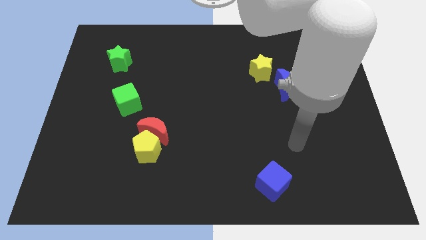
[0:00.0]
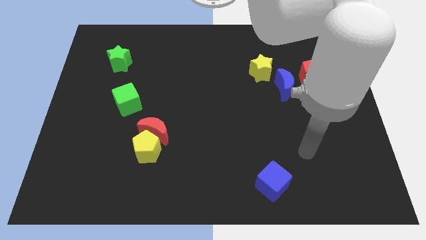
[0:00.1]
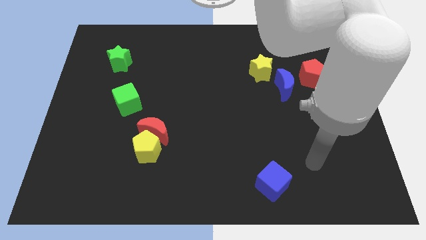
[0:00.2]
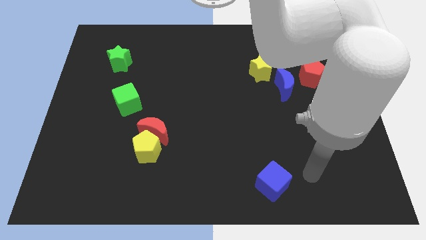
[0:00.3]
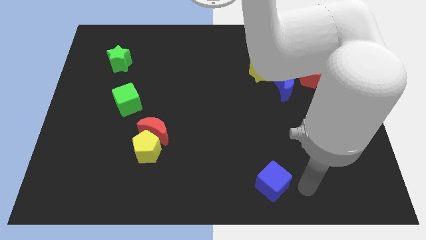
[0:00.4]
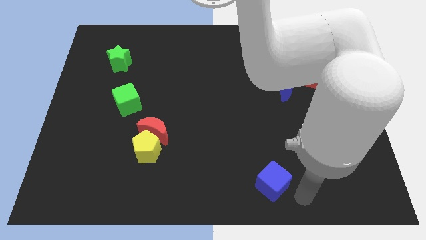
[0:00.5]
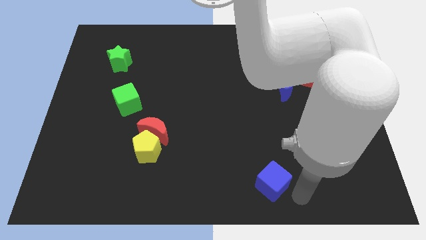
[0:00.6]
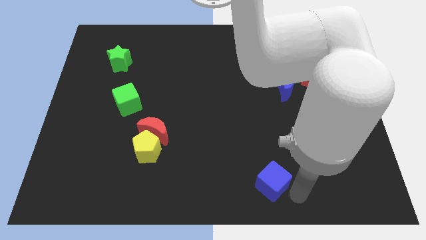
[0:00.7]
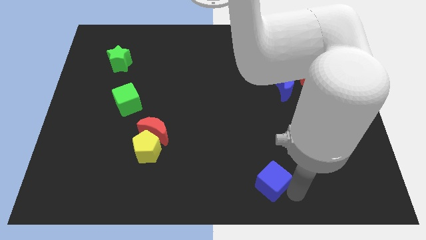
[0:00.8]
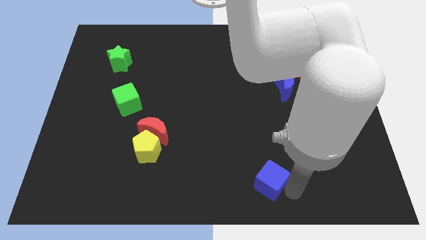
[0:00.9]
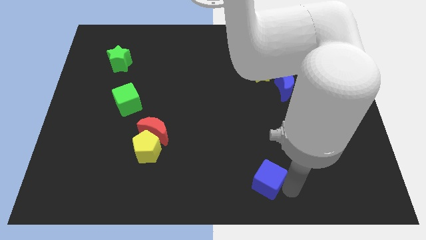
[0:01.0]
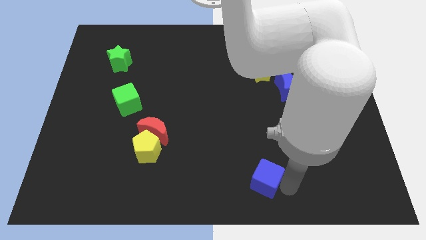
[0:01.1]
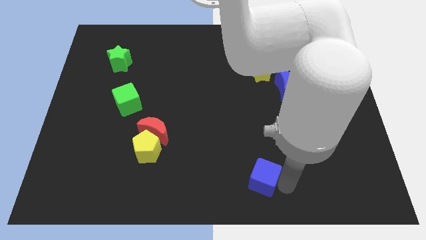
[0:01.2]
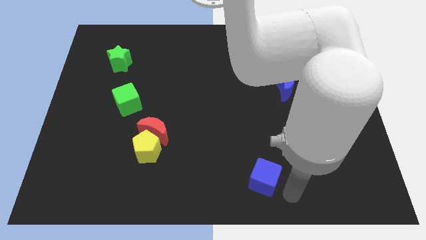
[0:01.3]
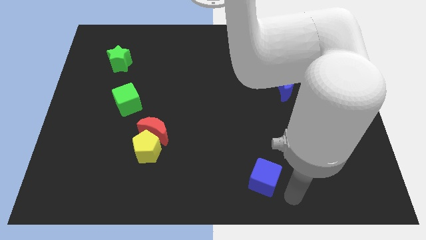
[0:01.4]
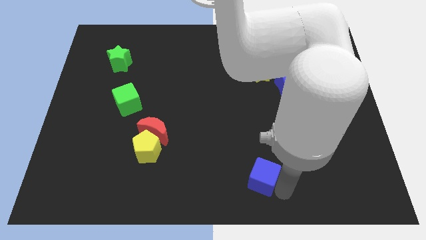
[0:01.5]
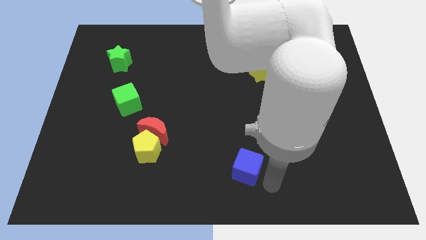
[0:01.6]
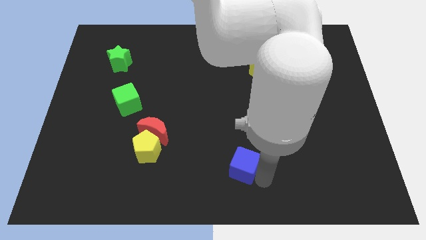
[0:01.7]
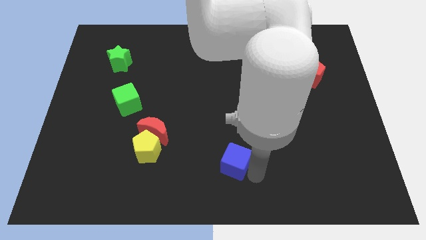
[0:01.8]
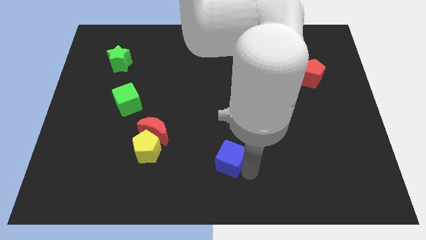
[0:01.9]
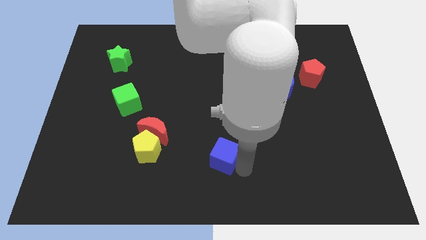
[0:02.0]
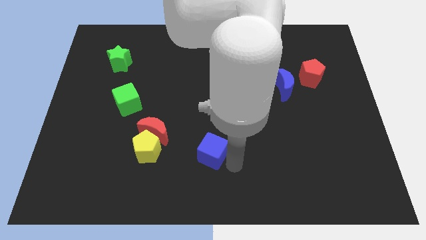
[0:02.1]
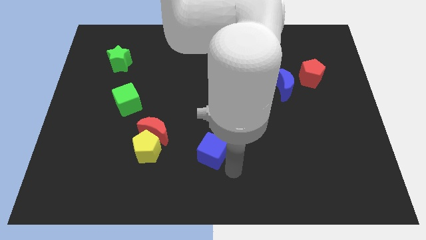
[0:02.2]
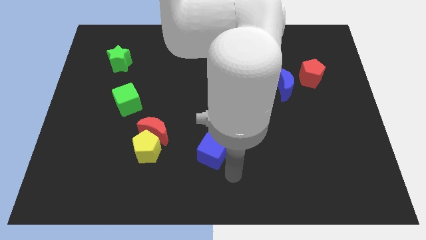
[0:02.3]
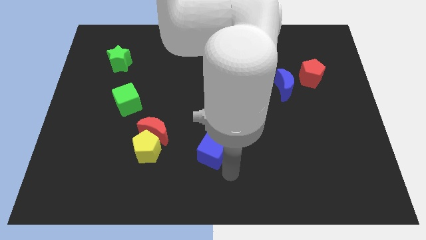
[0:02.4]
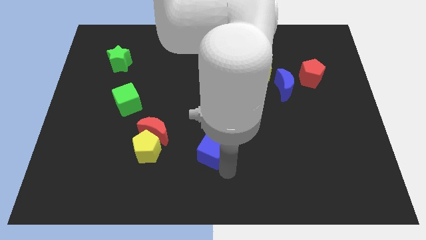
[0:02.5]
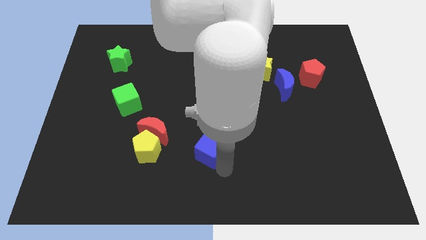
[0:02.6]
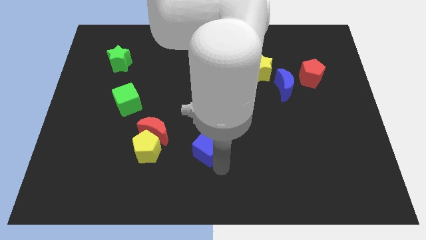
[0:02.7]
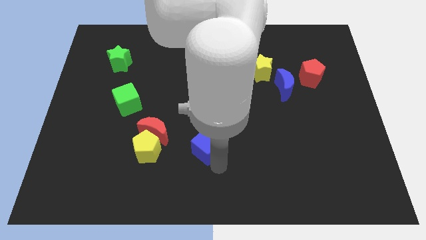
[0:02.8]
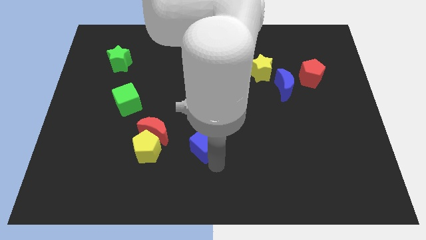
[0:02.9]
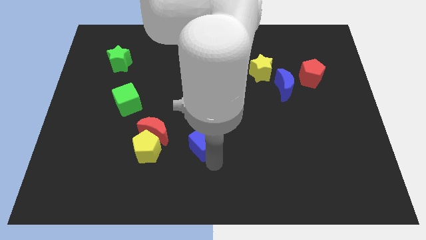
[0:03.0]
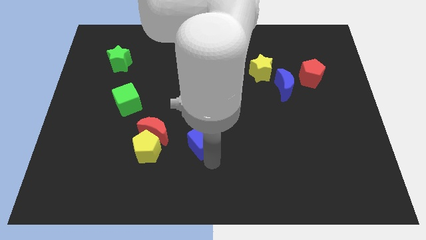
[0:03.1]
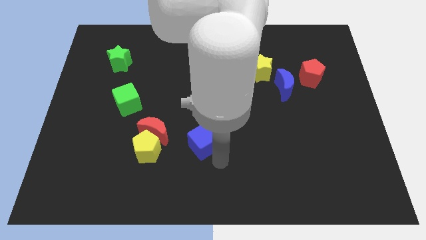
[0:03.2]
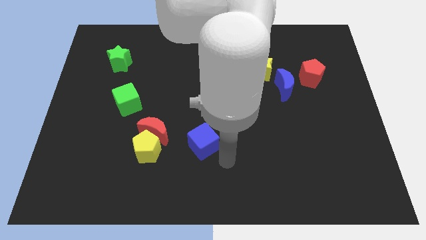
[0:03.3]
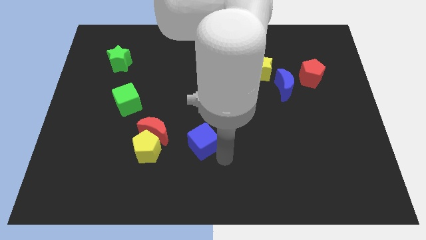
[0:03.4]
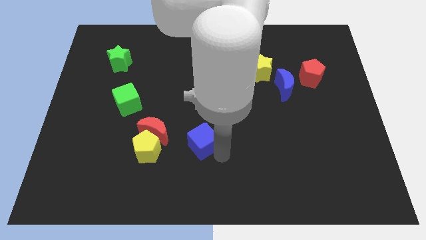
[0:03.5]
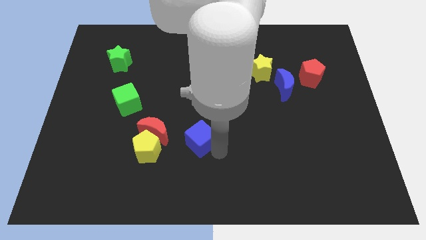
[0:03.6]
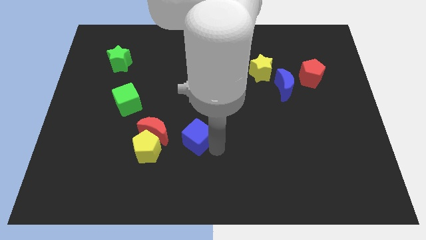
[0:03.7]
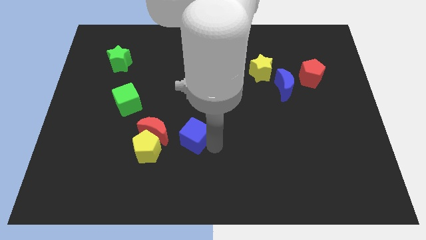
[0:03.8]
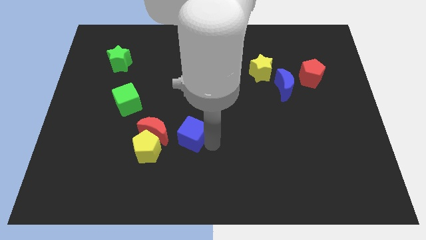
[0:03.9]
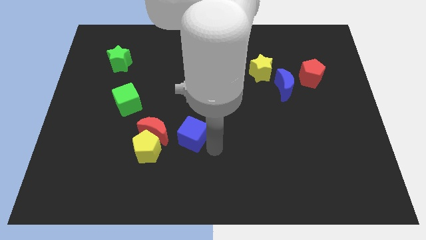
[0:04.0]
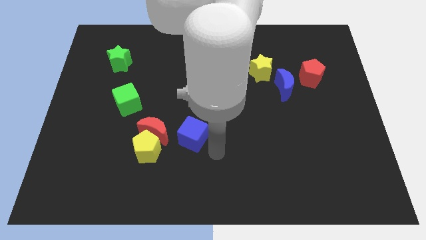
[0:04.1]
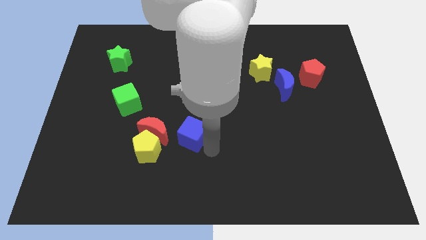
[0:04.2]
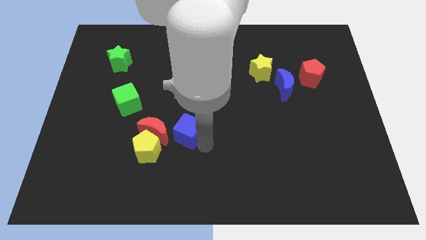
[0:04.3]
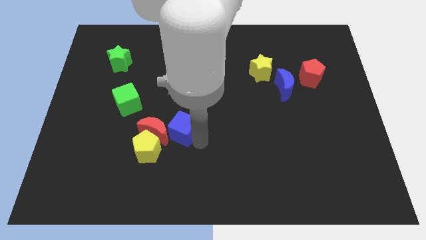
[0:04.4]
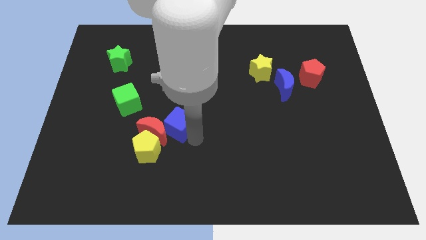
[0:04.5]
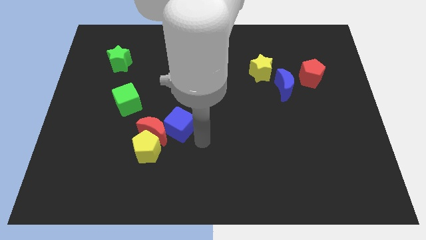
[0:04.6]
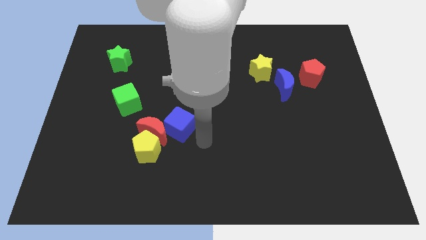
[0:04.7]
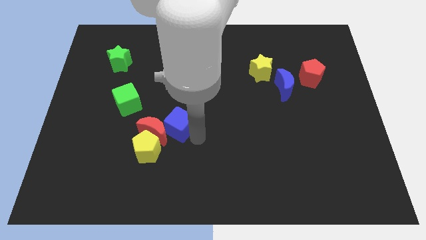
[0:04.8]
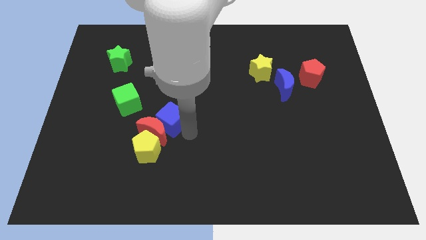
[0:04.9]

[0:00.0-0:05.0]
slide the blue cube to the top of the yellow pentagon

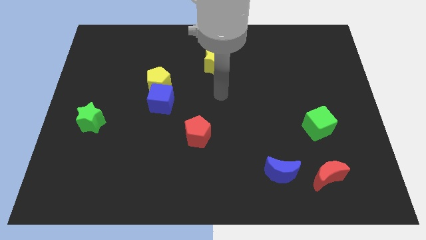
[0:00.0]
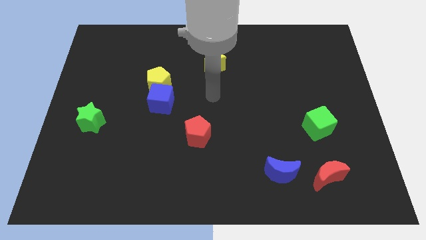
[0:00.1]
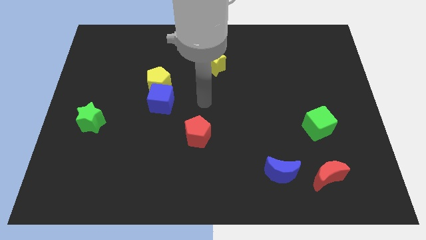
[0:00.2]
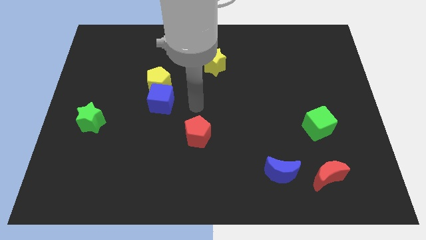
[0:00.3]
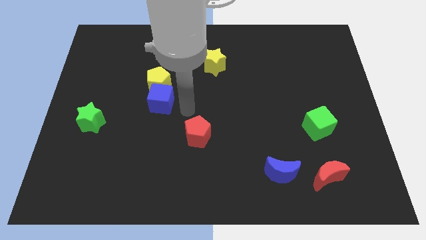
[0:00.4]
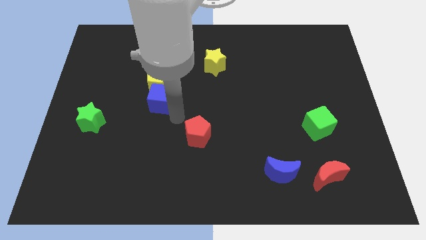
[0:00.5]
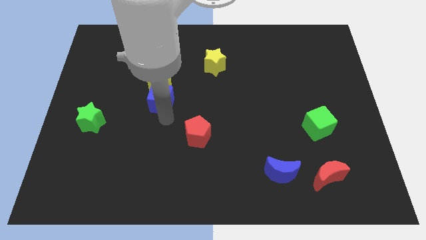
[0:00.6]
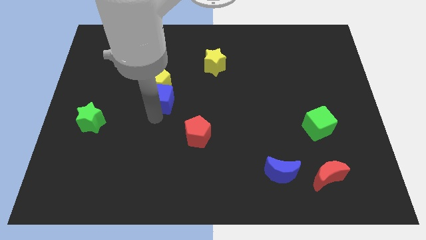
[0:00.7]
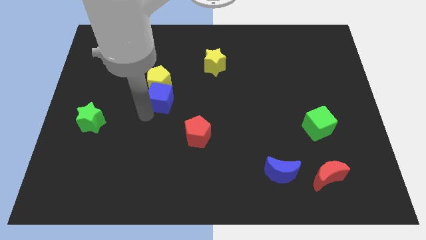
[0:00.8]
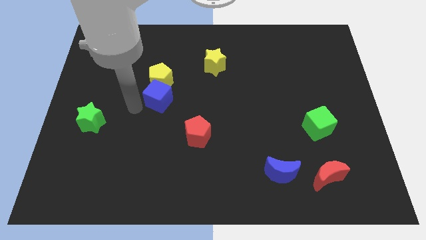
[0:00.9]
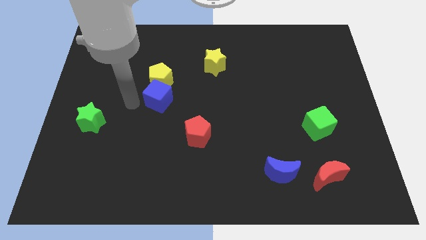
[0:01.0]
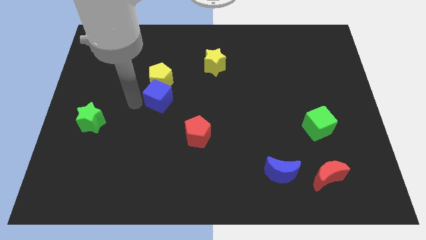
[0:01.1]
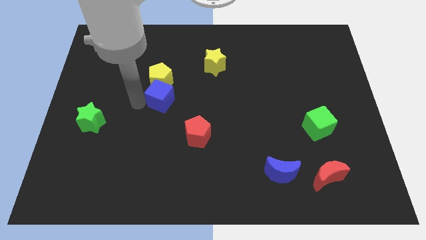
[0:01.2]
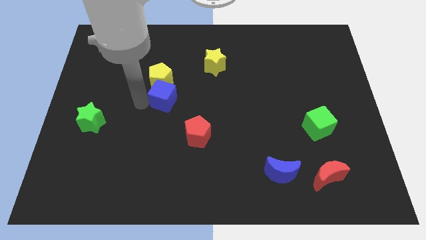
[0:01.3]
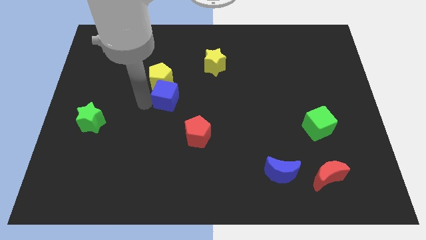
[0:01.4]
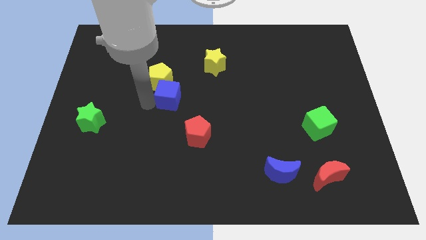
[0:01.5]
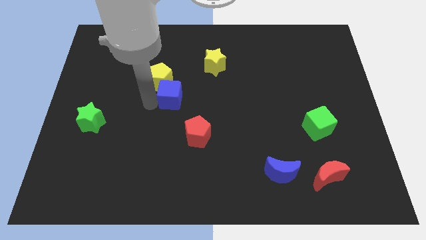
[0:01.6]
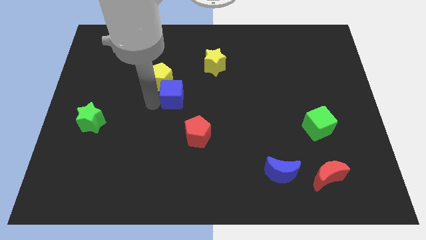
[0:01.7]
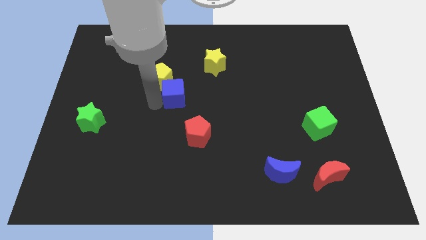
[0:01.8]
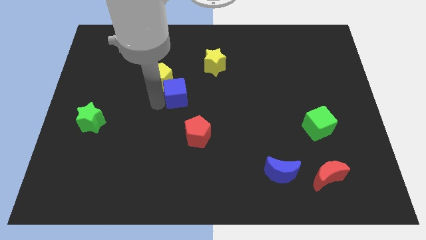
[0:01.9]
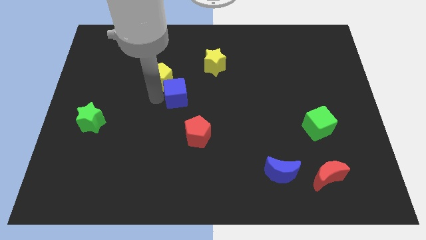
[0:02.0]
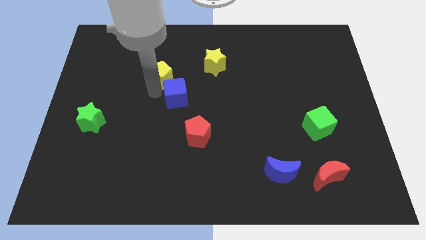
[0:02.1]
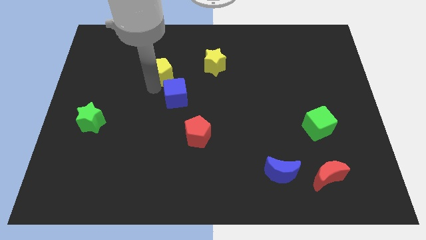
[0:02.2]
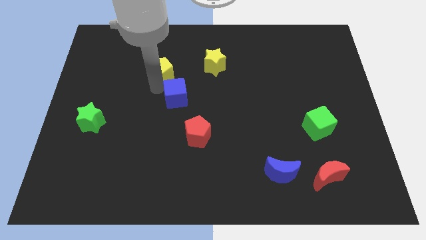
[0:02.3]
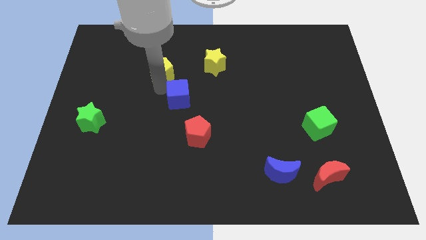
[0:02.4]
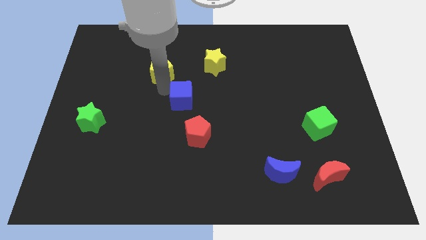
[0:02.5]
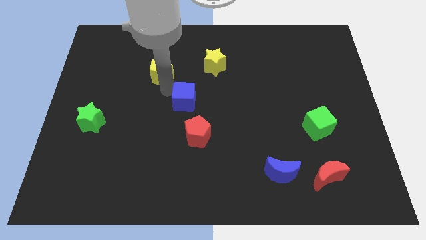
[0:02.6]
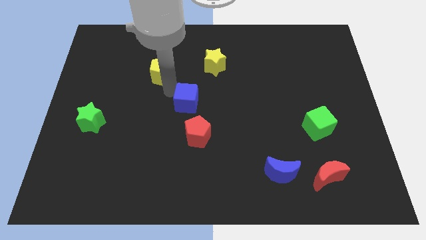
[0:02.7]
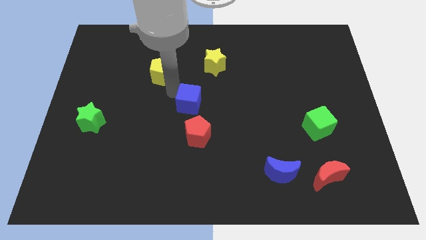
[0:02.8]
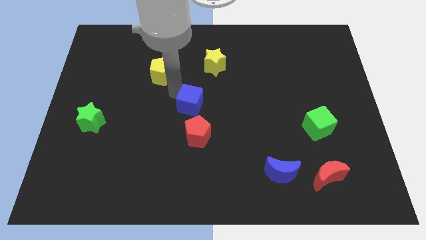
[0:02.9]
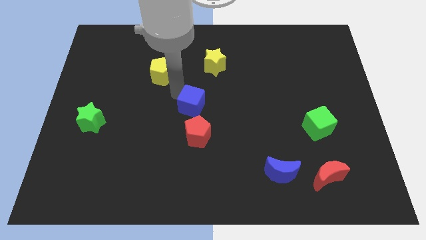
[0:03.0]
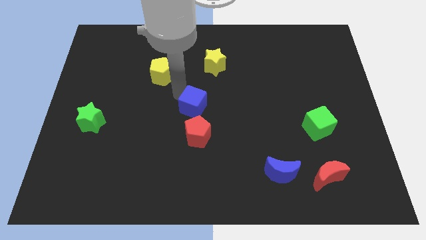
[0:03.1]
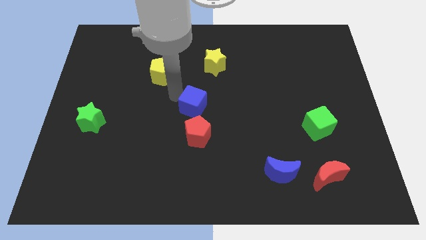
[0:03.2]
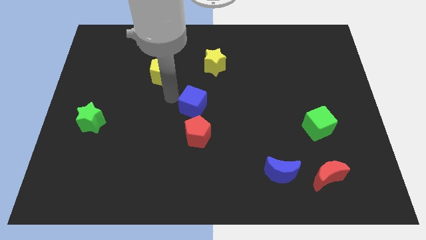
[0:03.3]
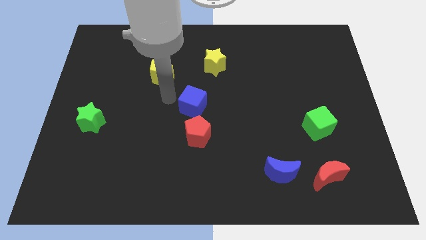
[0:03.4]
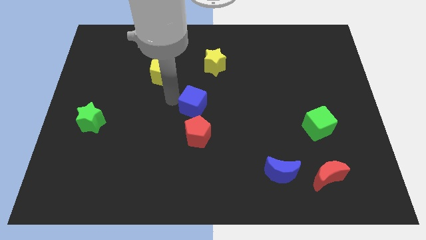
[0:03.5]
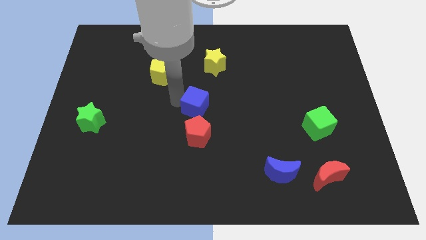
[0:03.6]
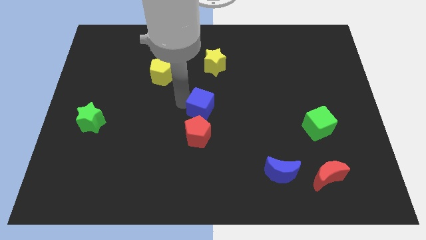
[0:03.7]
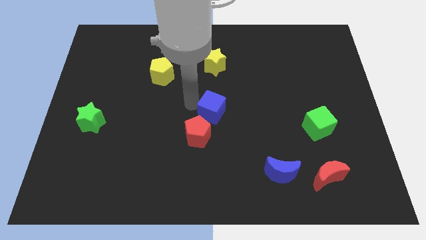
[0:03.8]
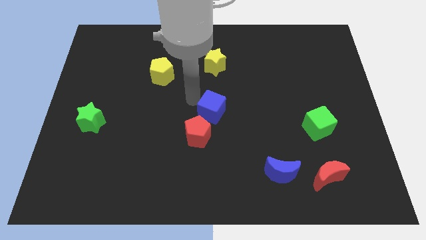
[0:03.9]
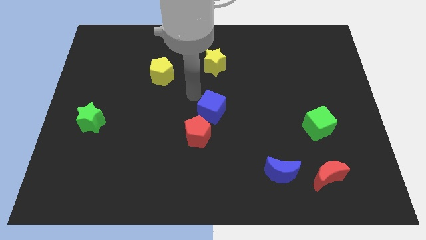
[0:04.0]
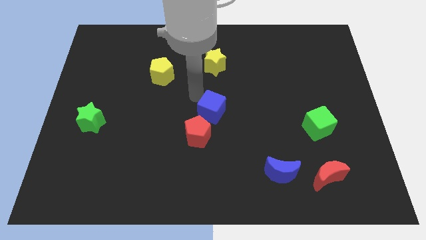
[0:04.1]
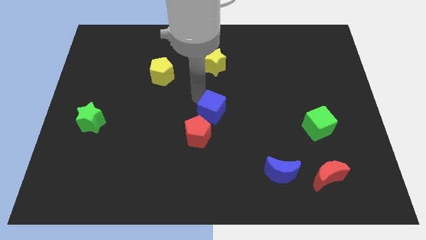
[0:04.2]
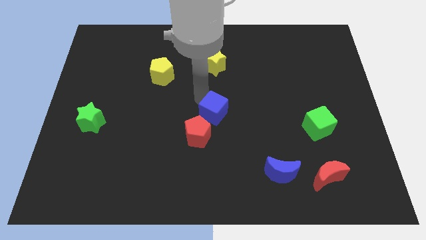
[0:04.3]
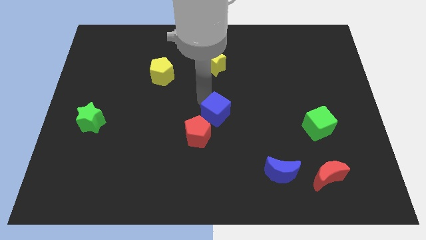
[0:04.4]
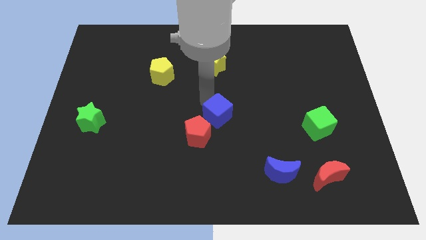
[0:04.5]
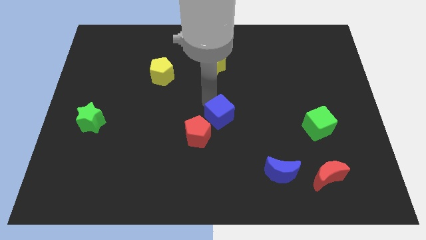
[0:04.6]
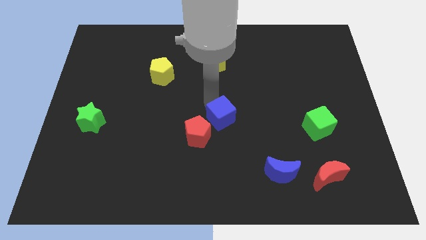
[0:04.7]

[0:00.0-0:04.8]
slide the blue cube to the right side of the red pentagon
